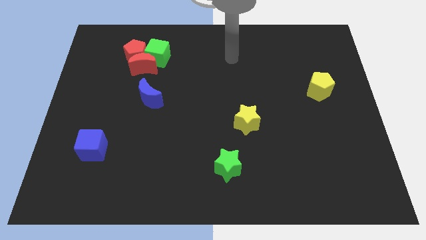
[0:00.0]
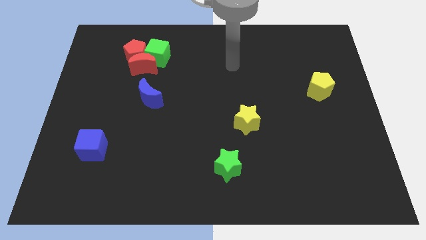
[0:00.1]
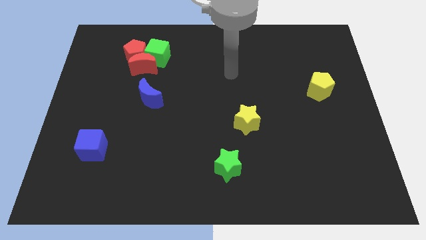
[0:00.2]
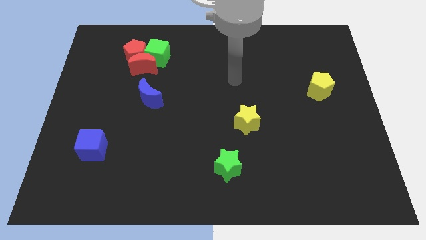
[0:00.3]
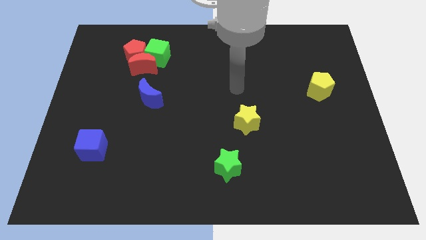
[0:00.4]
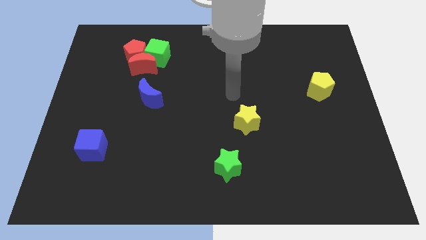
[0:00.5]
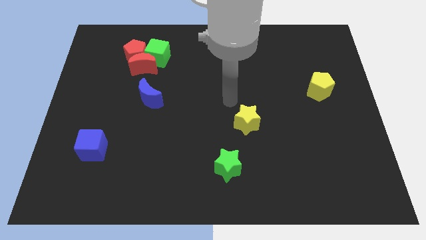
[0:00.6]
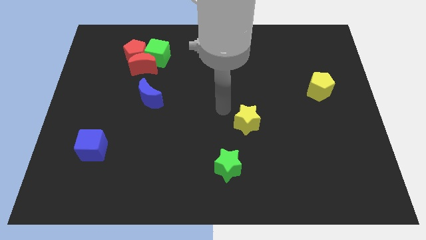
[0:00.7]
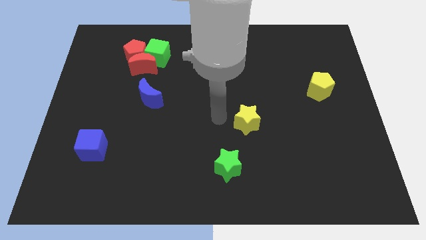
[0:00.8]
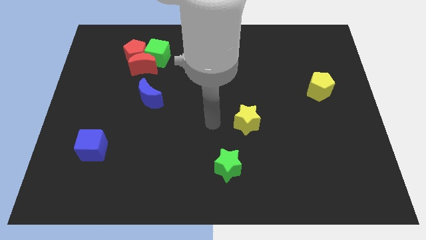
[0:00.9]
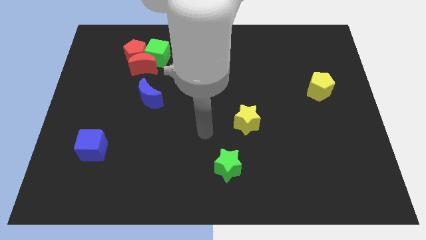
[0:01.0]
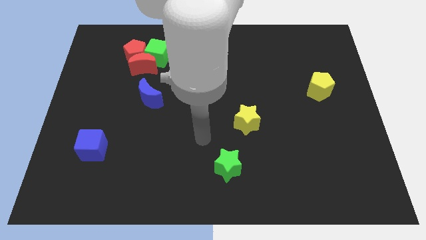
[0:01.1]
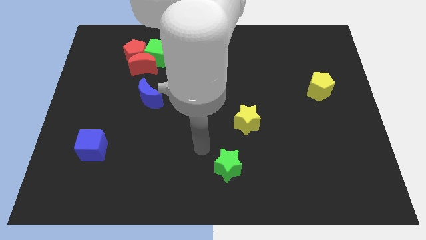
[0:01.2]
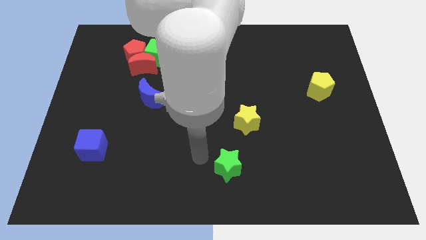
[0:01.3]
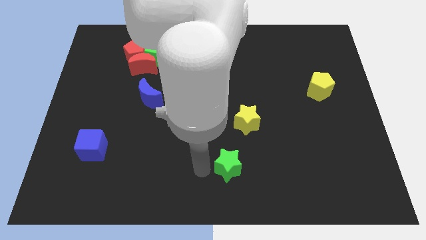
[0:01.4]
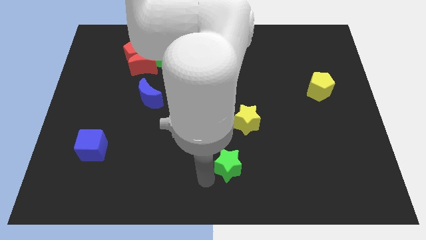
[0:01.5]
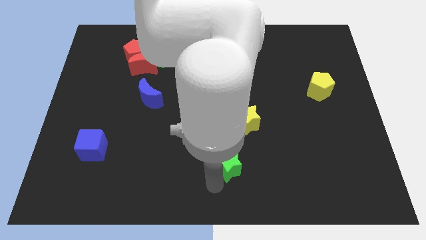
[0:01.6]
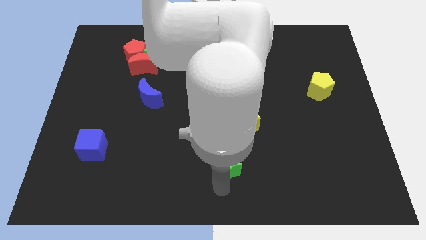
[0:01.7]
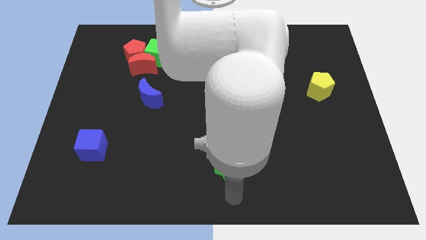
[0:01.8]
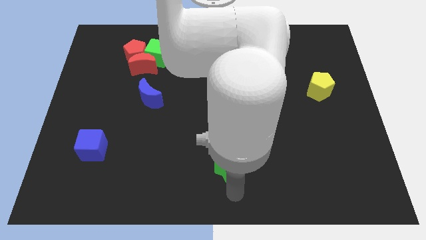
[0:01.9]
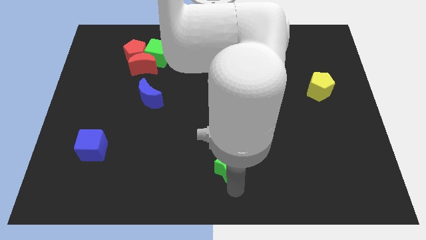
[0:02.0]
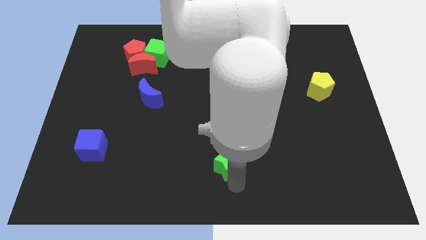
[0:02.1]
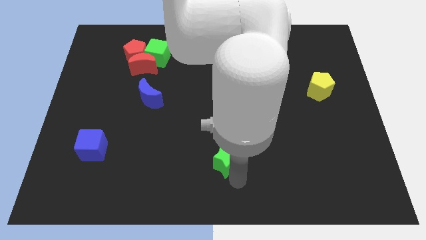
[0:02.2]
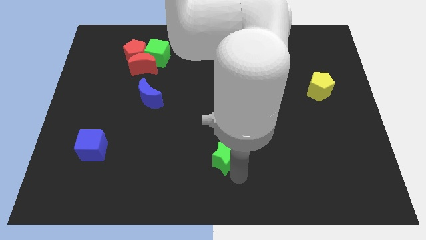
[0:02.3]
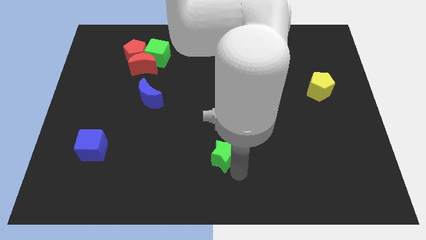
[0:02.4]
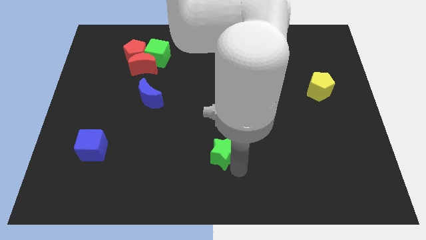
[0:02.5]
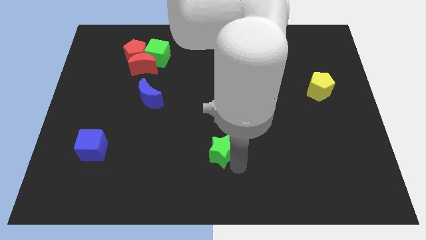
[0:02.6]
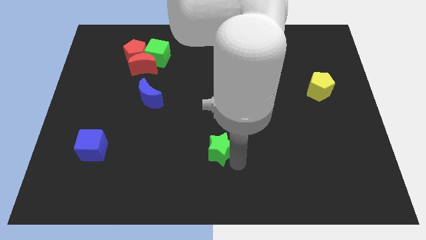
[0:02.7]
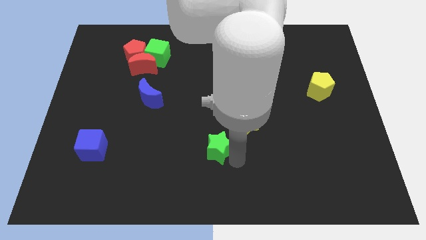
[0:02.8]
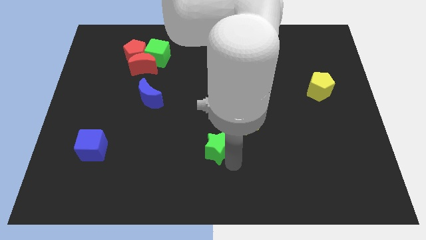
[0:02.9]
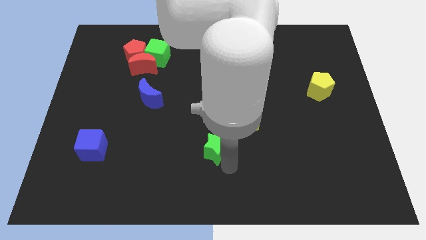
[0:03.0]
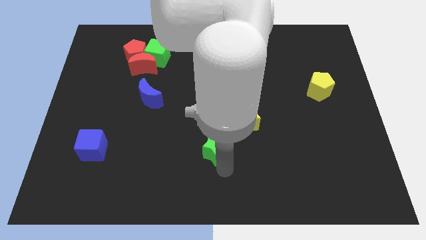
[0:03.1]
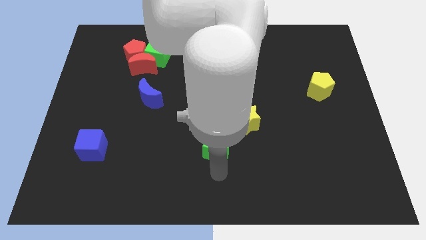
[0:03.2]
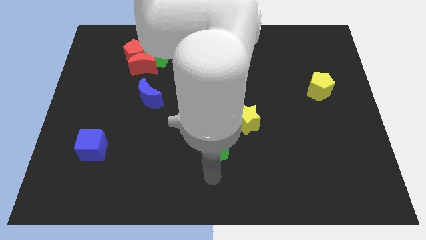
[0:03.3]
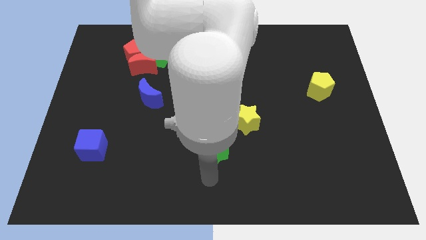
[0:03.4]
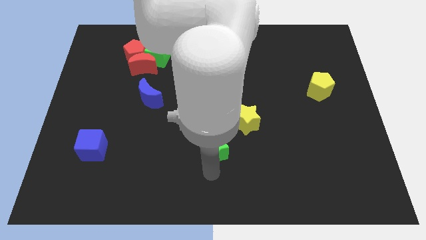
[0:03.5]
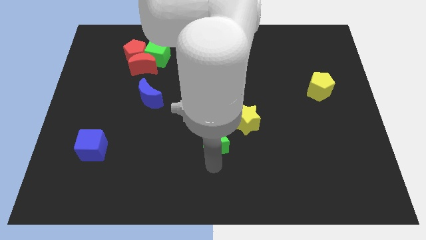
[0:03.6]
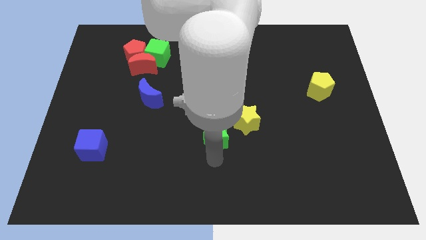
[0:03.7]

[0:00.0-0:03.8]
push the green star upwards a little

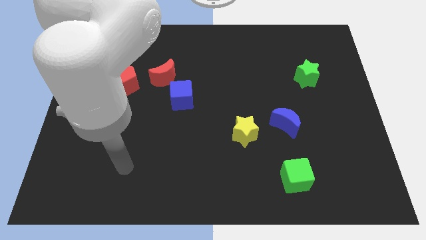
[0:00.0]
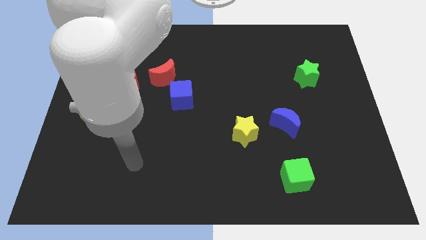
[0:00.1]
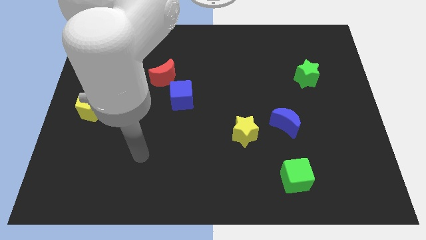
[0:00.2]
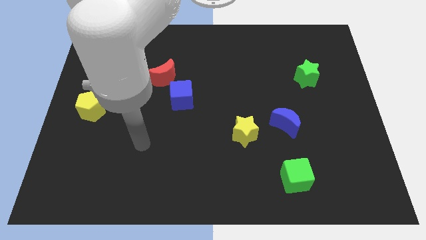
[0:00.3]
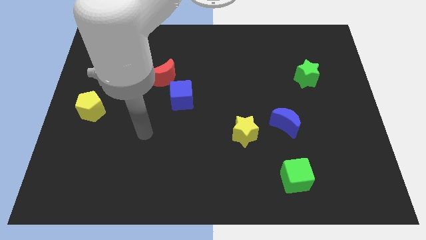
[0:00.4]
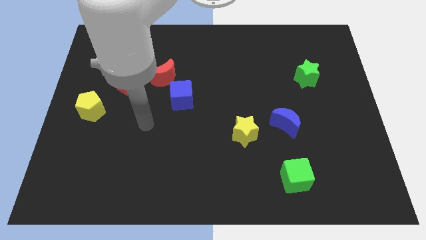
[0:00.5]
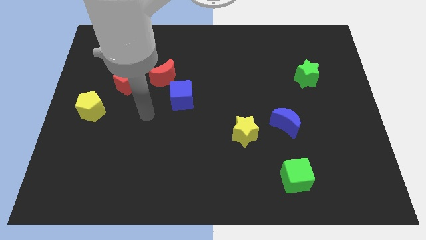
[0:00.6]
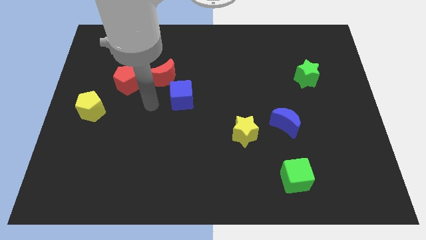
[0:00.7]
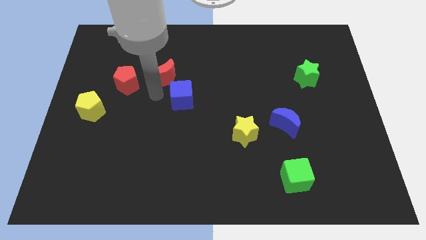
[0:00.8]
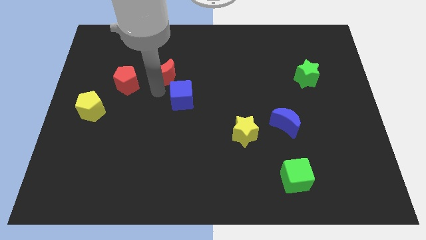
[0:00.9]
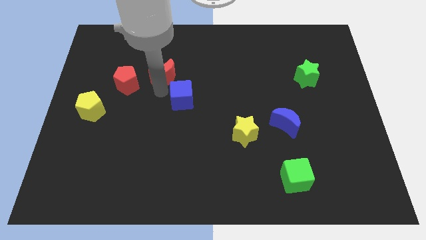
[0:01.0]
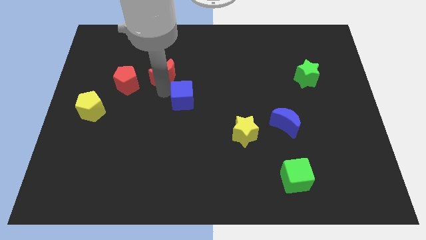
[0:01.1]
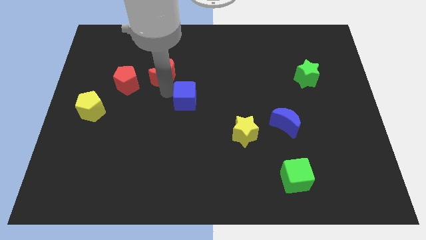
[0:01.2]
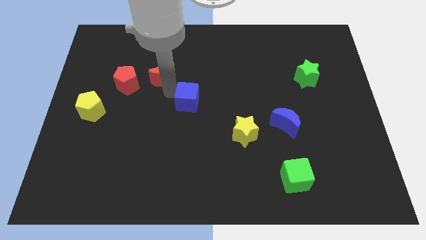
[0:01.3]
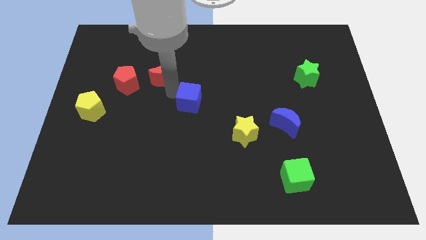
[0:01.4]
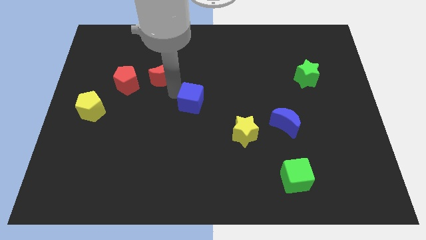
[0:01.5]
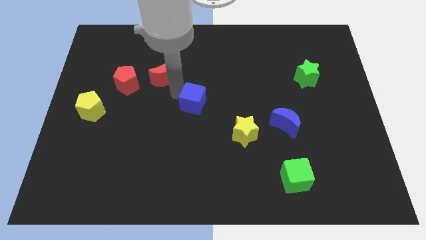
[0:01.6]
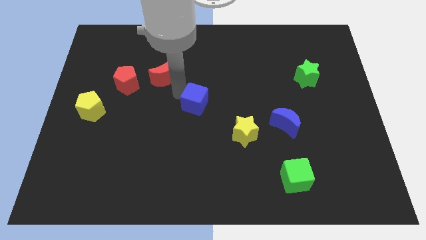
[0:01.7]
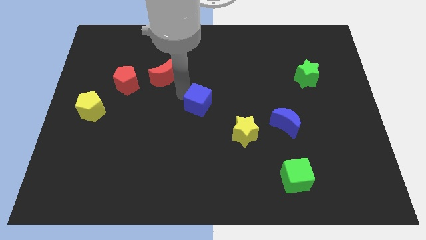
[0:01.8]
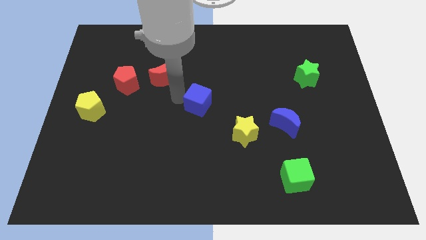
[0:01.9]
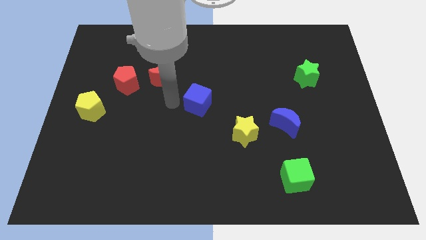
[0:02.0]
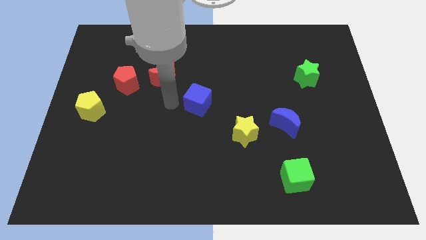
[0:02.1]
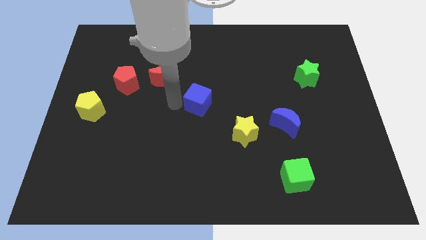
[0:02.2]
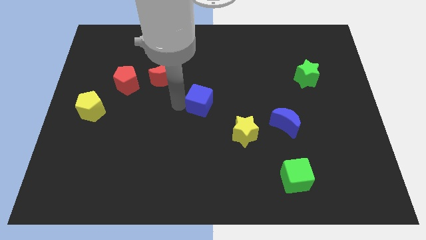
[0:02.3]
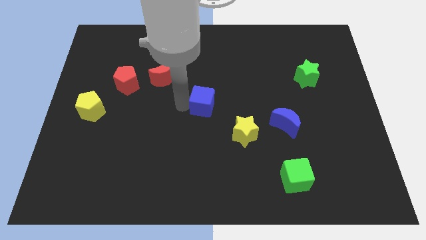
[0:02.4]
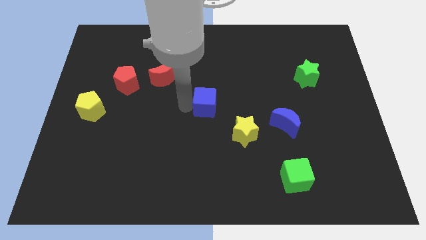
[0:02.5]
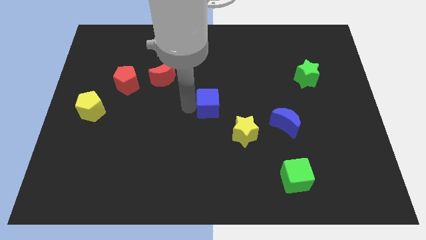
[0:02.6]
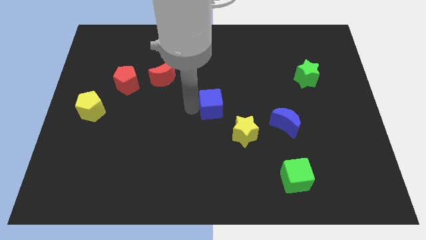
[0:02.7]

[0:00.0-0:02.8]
slide the blue cube somewhat to the right

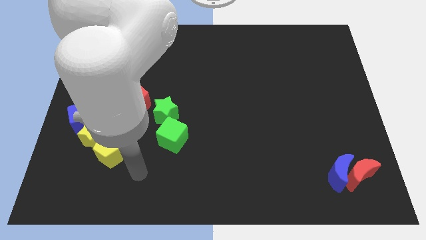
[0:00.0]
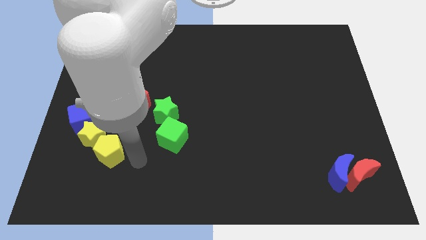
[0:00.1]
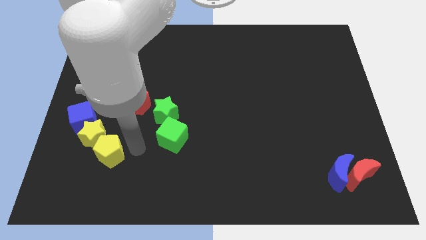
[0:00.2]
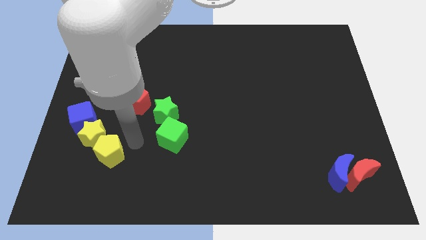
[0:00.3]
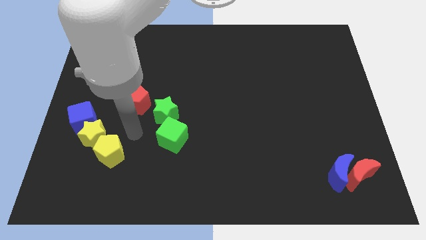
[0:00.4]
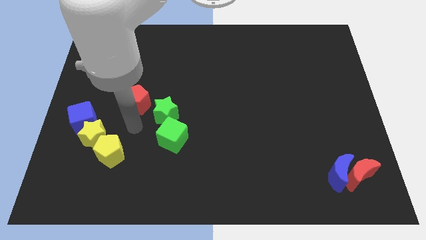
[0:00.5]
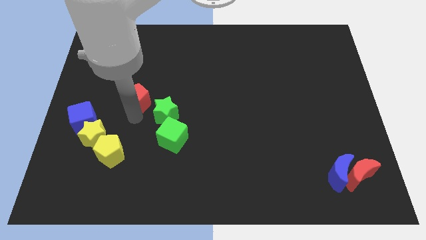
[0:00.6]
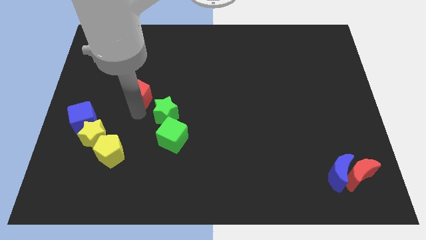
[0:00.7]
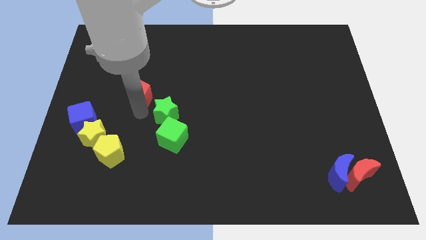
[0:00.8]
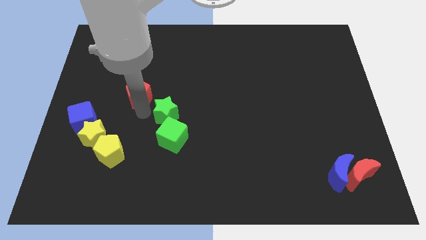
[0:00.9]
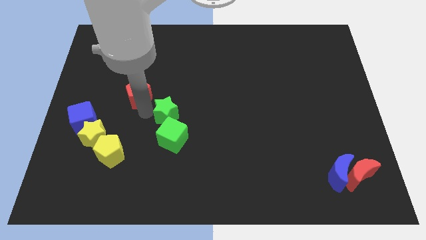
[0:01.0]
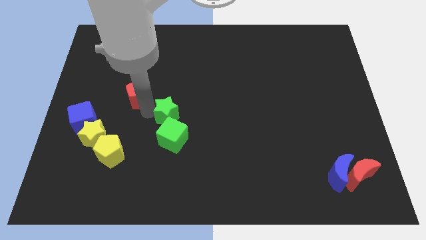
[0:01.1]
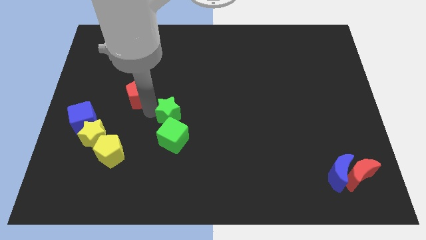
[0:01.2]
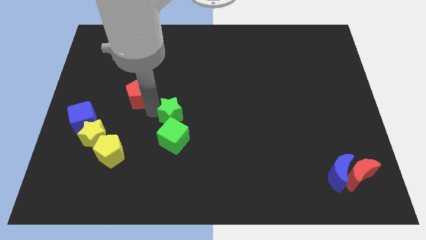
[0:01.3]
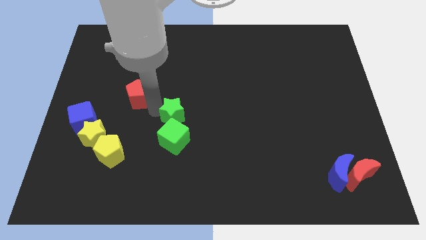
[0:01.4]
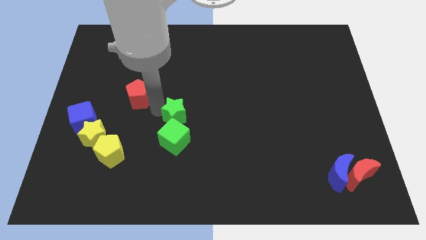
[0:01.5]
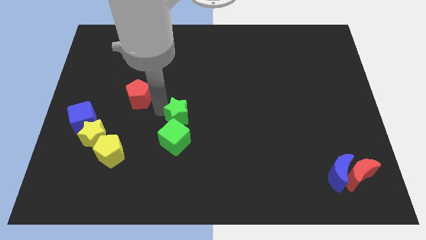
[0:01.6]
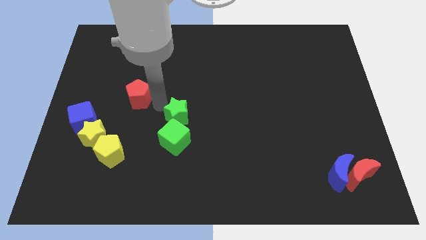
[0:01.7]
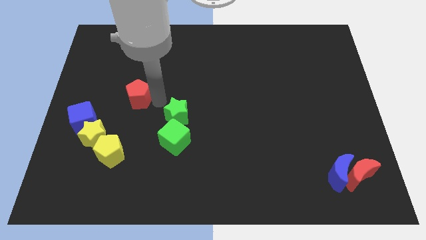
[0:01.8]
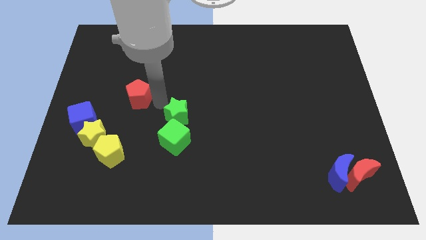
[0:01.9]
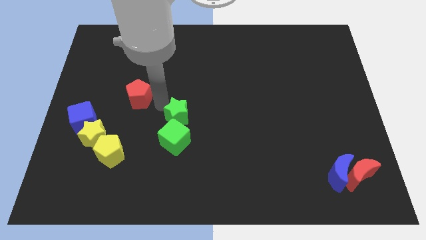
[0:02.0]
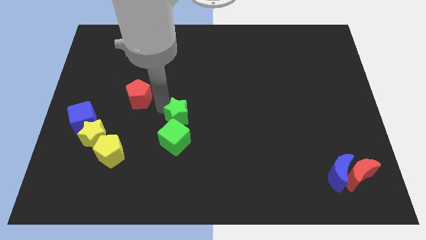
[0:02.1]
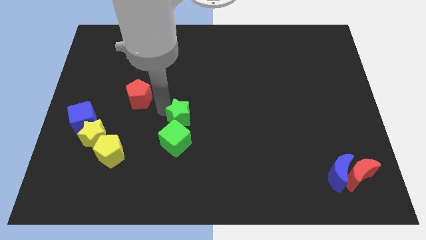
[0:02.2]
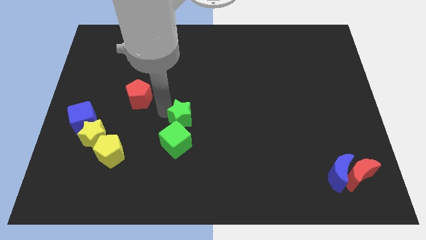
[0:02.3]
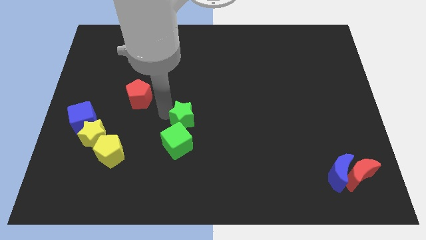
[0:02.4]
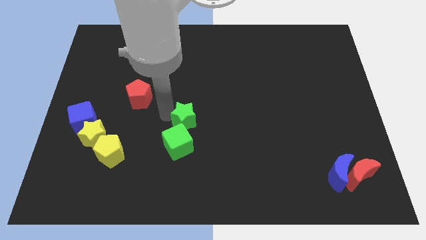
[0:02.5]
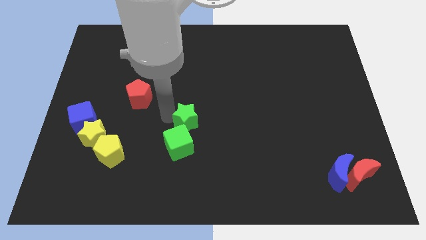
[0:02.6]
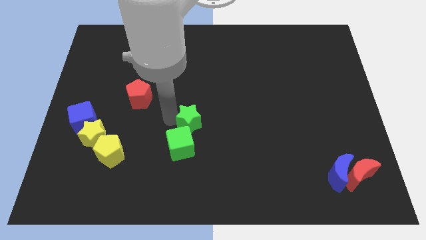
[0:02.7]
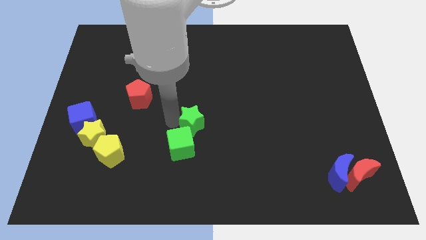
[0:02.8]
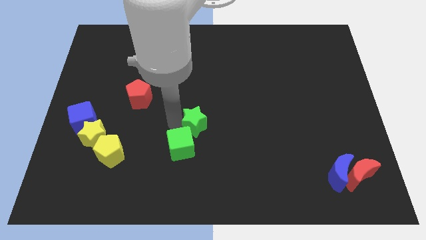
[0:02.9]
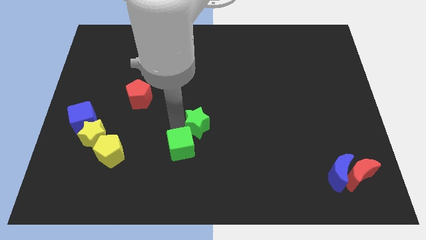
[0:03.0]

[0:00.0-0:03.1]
slightly slide the green star diagonally downwards and right
